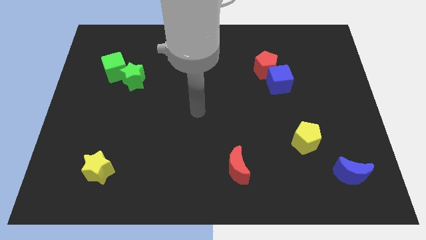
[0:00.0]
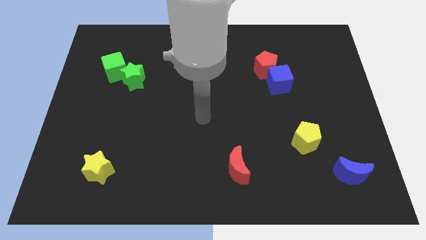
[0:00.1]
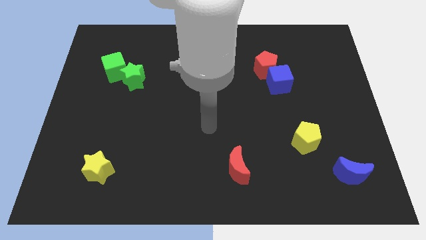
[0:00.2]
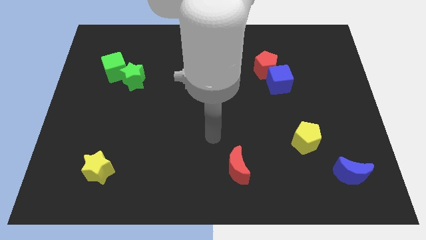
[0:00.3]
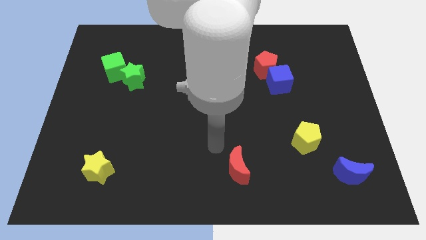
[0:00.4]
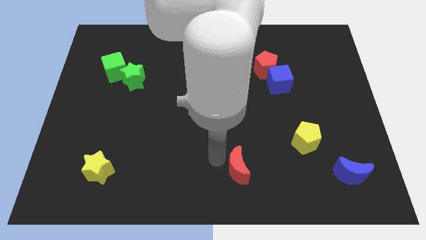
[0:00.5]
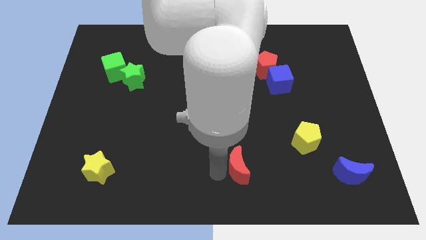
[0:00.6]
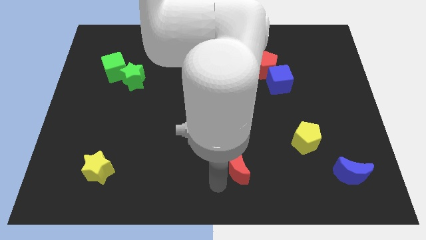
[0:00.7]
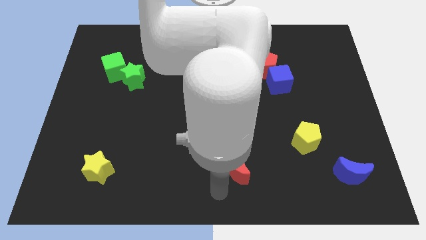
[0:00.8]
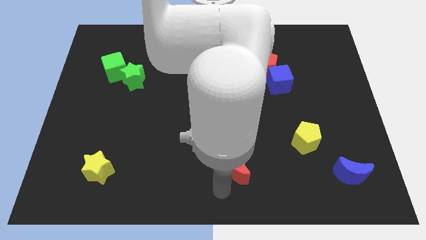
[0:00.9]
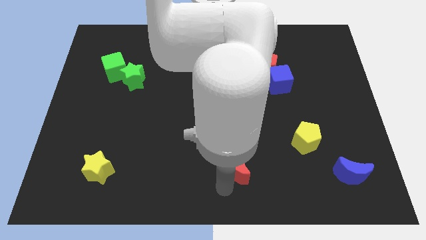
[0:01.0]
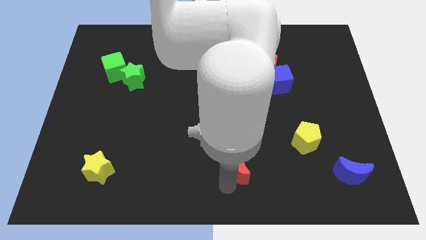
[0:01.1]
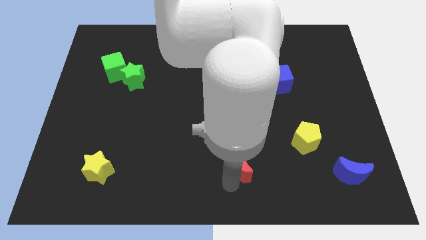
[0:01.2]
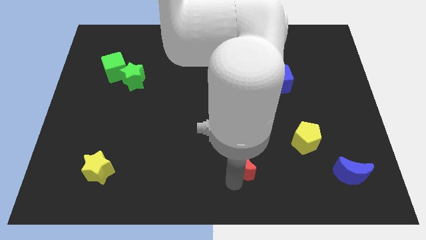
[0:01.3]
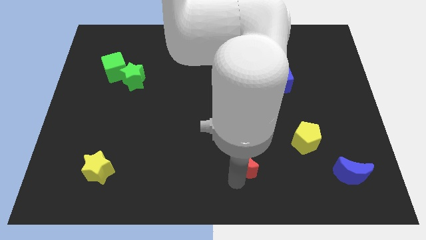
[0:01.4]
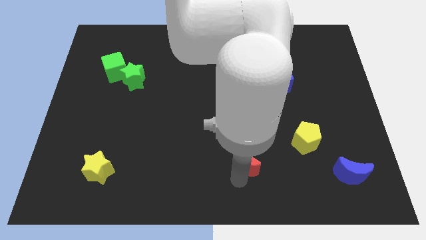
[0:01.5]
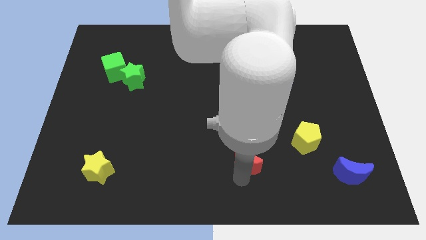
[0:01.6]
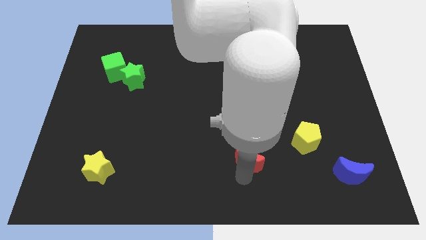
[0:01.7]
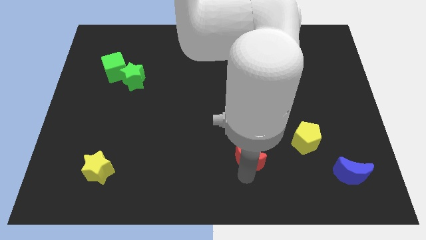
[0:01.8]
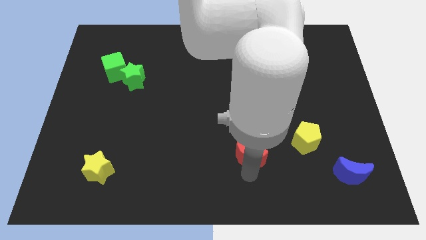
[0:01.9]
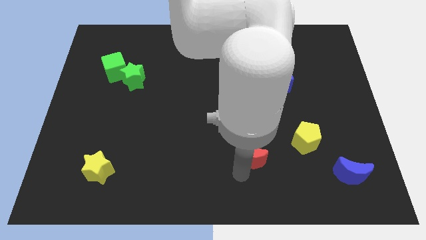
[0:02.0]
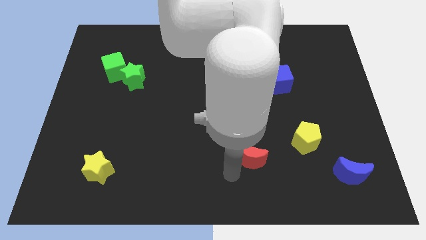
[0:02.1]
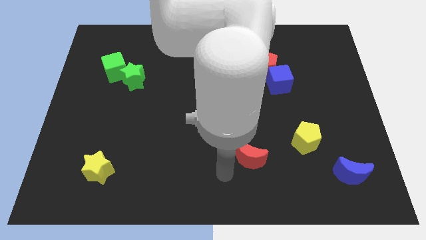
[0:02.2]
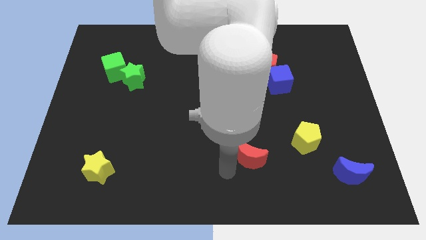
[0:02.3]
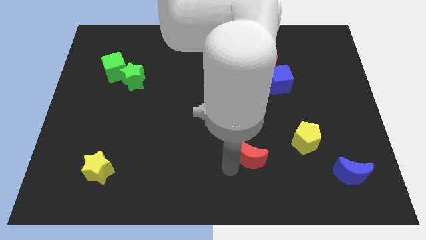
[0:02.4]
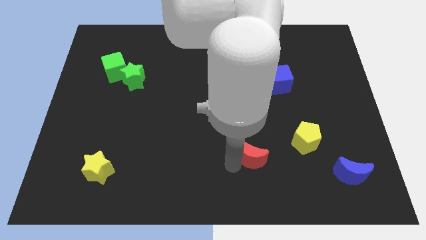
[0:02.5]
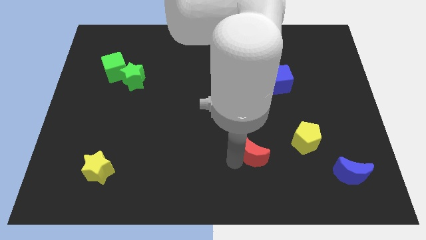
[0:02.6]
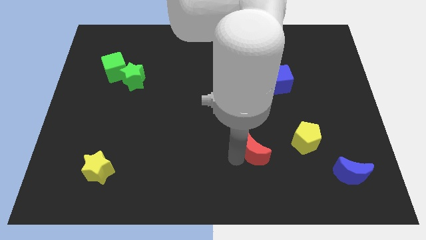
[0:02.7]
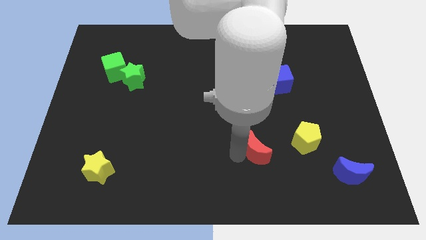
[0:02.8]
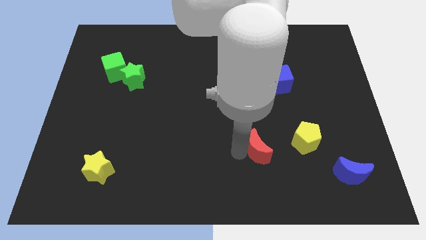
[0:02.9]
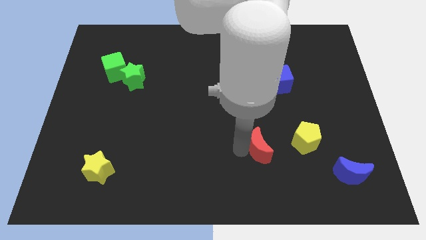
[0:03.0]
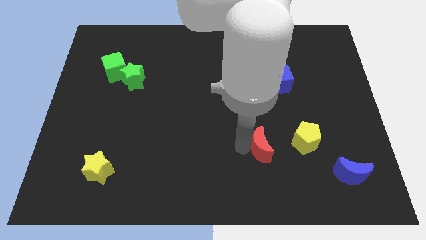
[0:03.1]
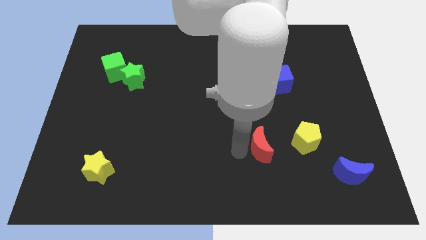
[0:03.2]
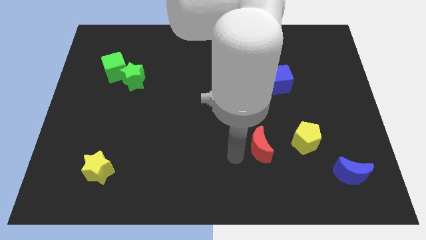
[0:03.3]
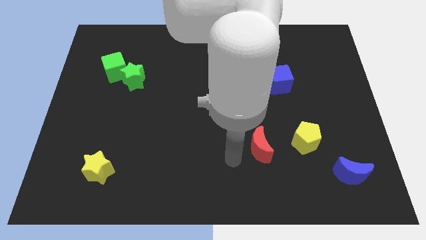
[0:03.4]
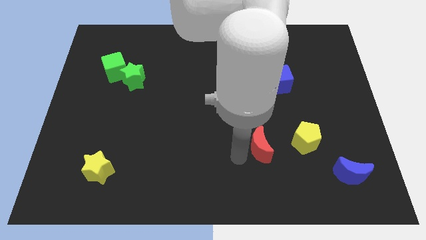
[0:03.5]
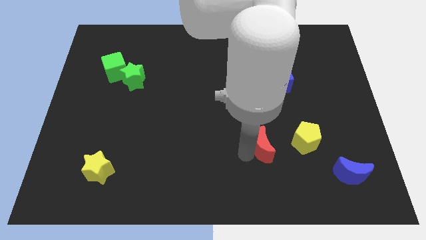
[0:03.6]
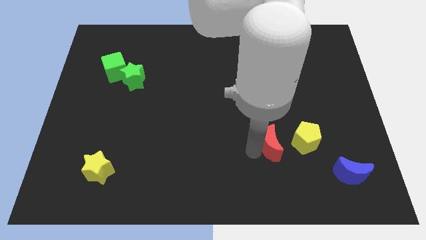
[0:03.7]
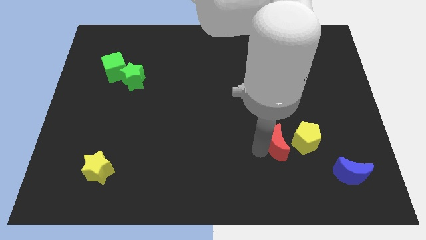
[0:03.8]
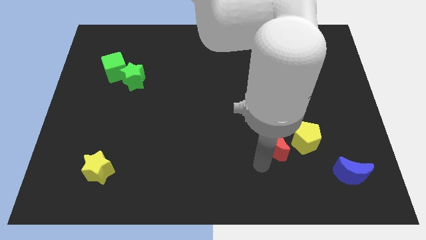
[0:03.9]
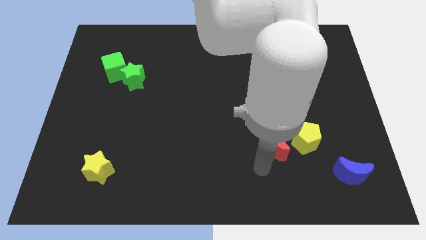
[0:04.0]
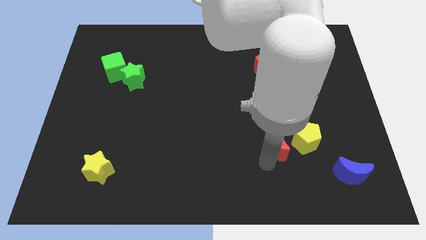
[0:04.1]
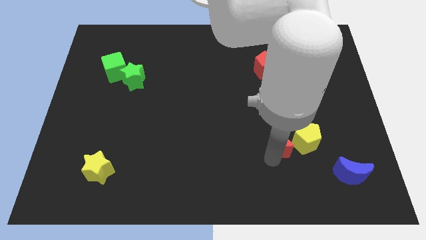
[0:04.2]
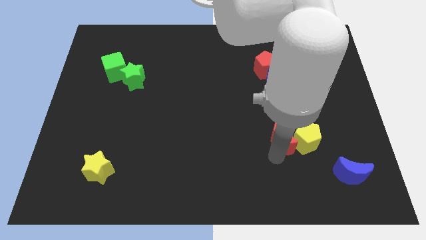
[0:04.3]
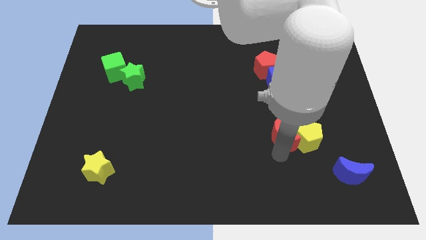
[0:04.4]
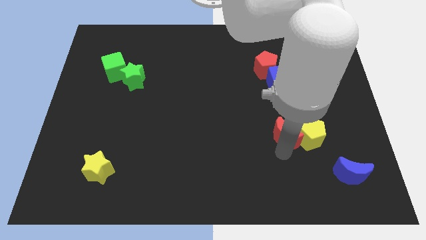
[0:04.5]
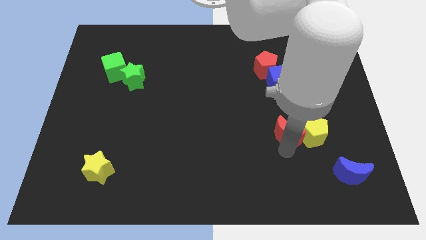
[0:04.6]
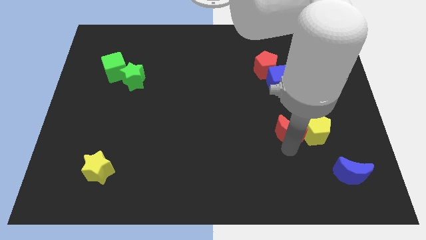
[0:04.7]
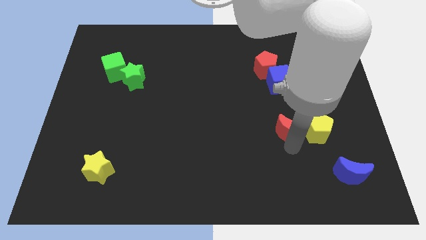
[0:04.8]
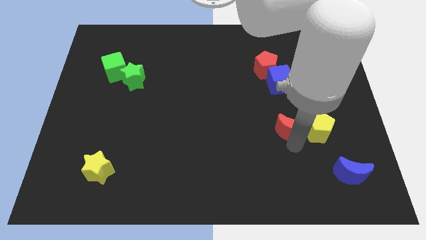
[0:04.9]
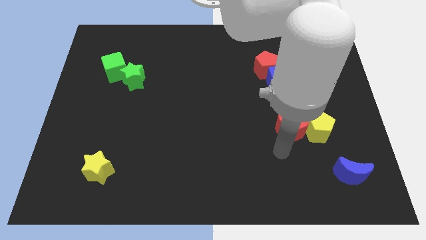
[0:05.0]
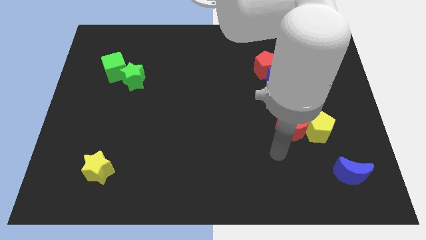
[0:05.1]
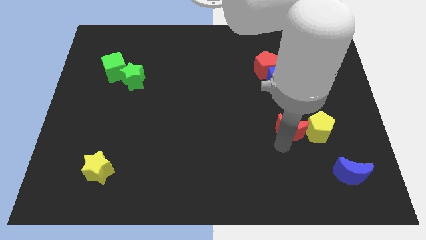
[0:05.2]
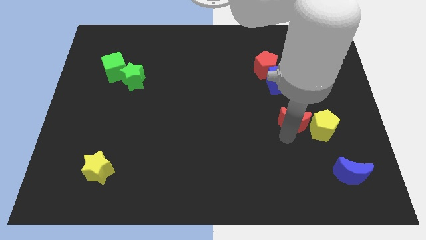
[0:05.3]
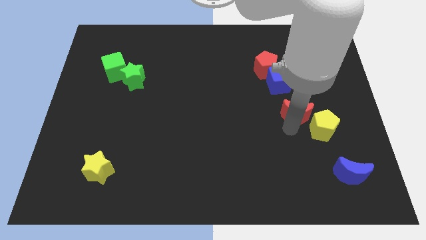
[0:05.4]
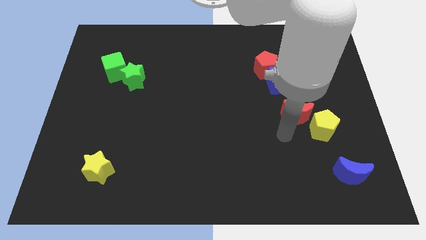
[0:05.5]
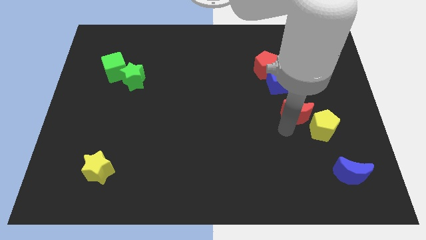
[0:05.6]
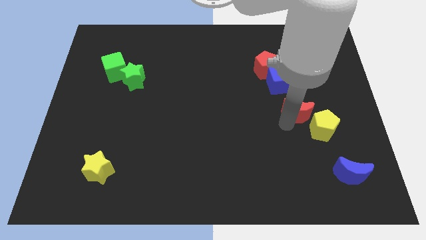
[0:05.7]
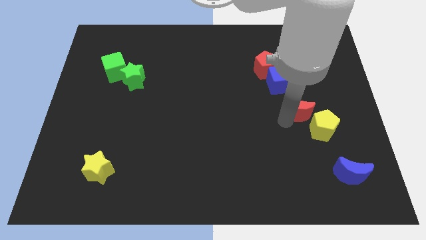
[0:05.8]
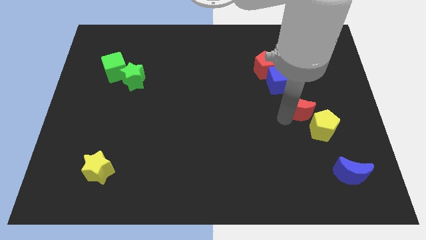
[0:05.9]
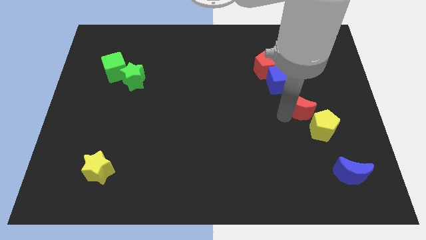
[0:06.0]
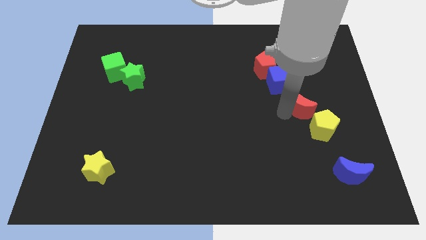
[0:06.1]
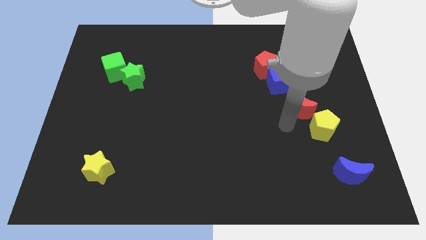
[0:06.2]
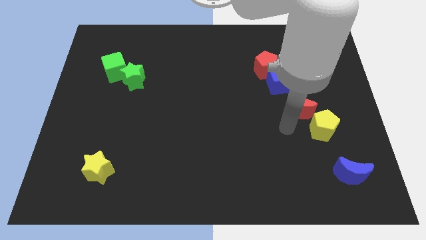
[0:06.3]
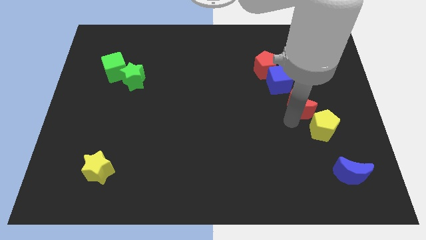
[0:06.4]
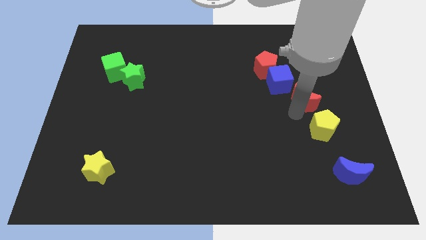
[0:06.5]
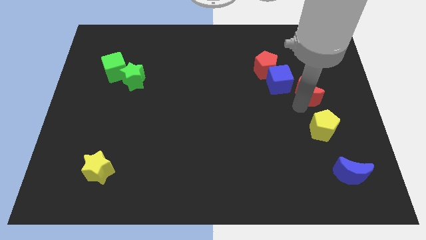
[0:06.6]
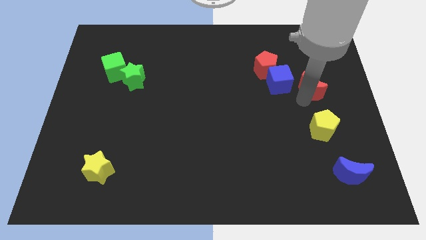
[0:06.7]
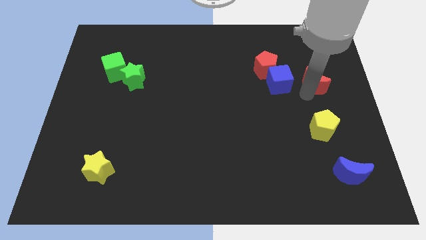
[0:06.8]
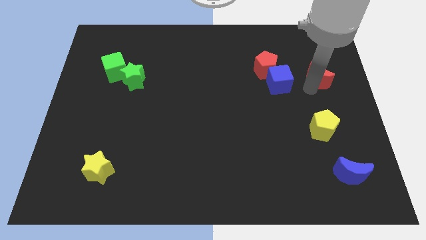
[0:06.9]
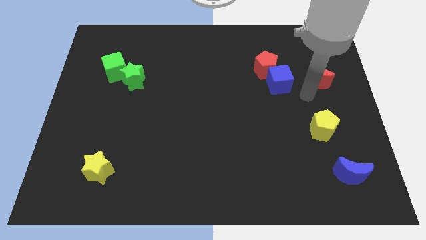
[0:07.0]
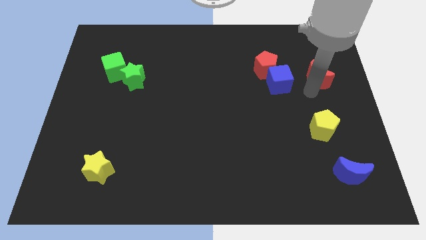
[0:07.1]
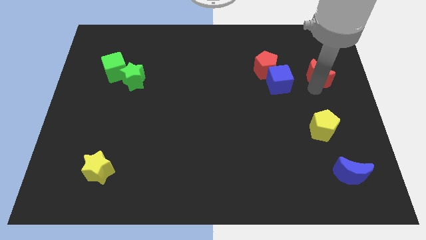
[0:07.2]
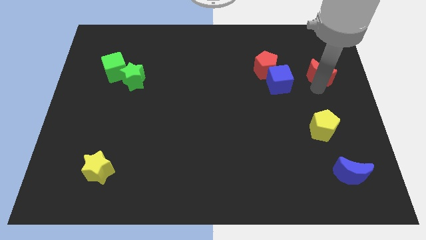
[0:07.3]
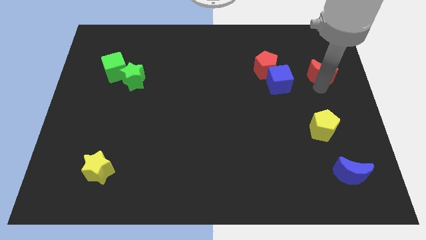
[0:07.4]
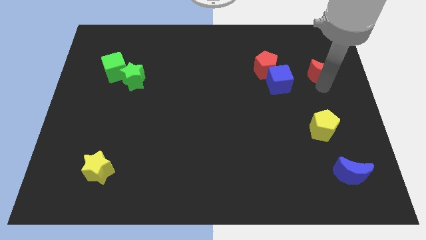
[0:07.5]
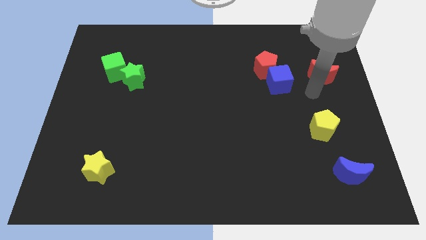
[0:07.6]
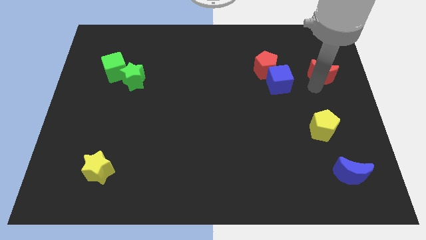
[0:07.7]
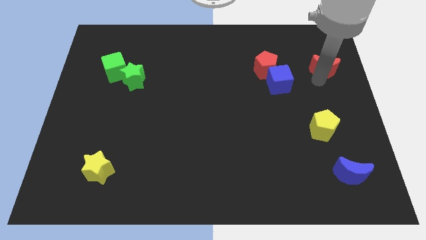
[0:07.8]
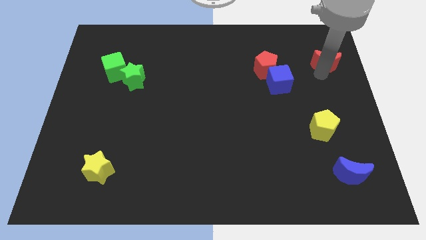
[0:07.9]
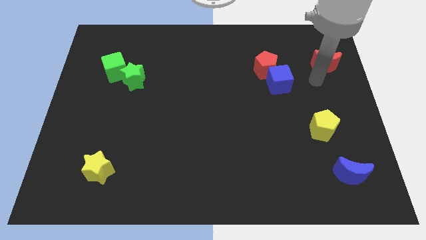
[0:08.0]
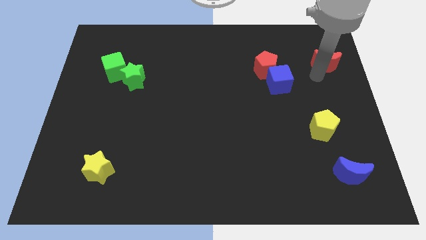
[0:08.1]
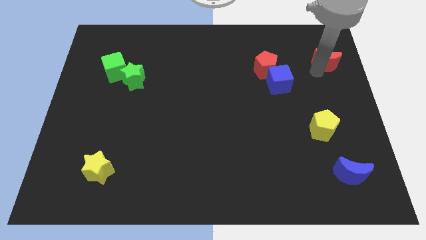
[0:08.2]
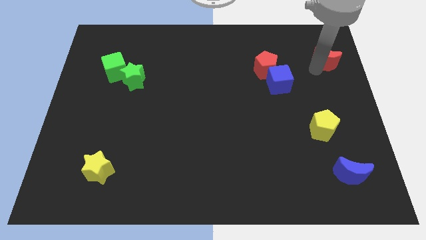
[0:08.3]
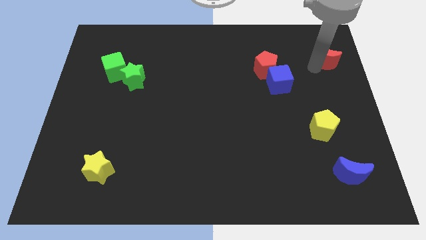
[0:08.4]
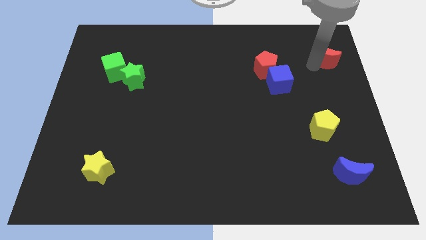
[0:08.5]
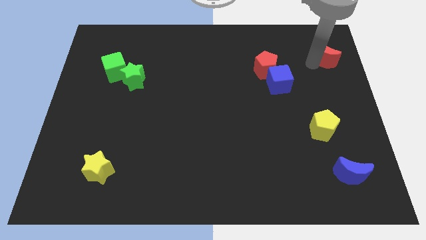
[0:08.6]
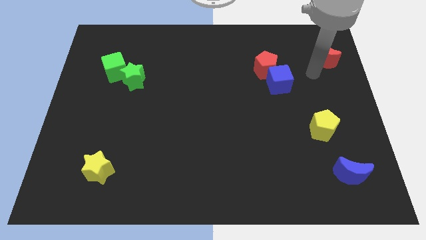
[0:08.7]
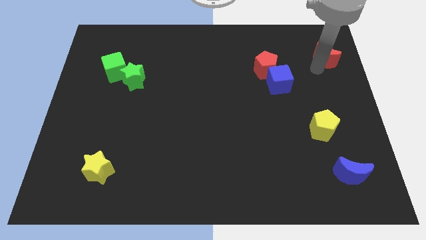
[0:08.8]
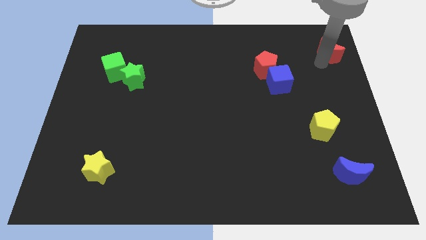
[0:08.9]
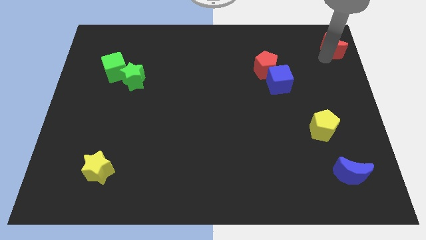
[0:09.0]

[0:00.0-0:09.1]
move the red moon to the top right of the board
